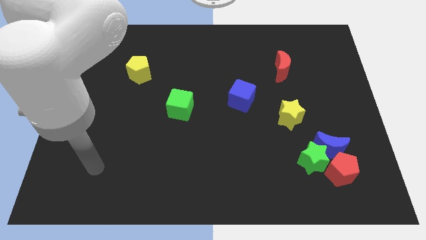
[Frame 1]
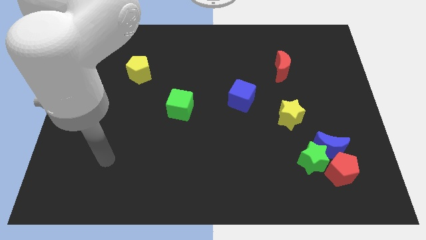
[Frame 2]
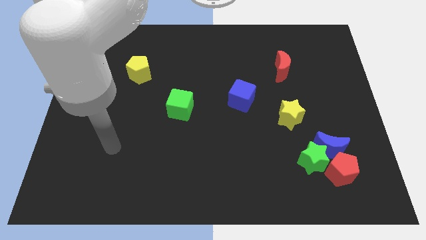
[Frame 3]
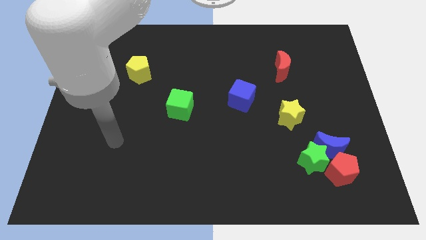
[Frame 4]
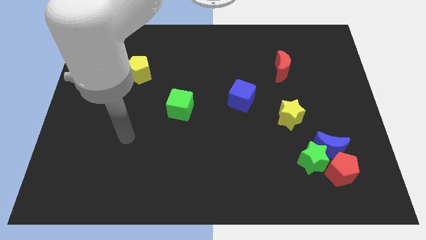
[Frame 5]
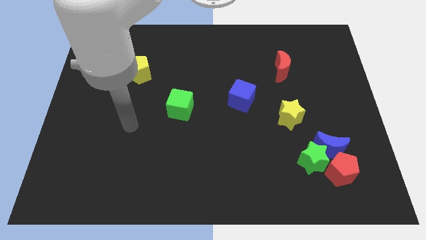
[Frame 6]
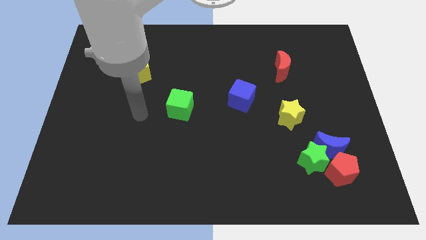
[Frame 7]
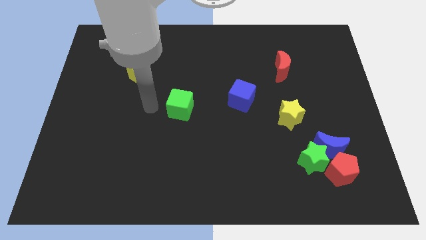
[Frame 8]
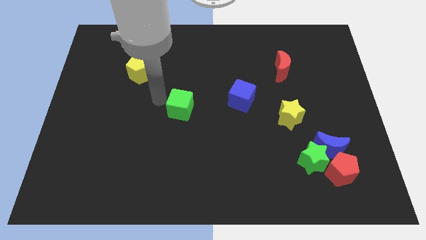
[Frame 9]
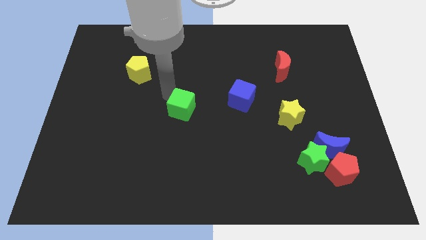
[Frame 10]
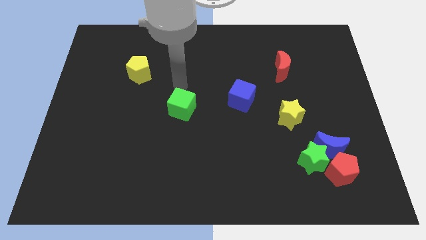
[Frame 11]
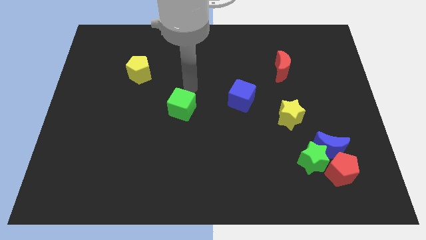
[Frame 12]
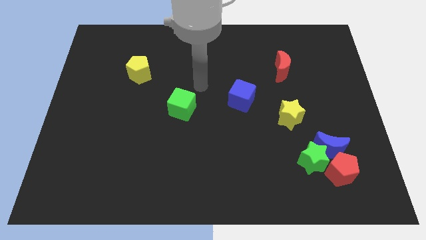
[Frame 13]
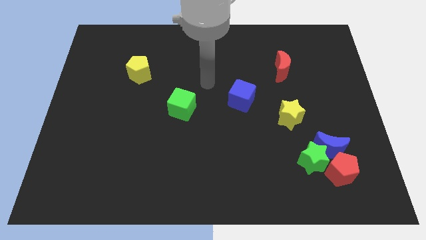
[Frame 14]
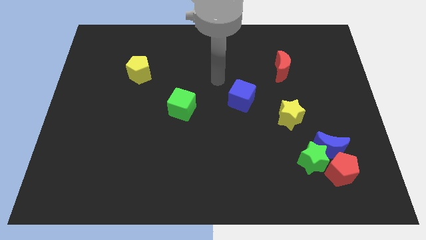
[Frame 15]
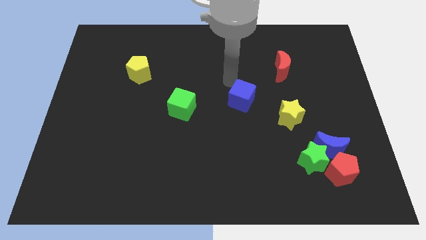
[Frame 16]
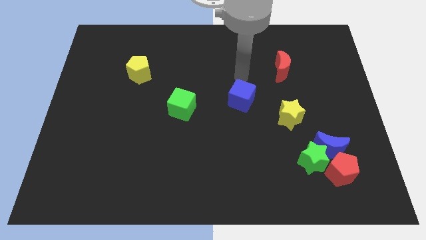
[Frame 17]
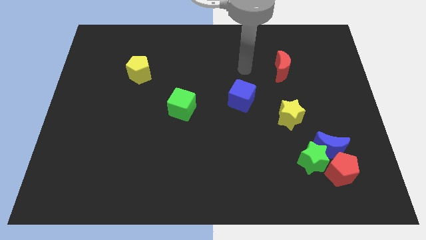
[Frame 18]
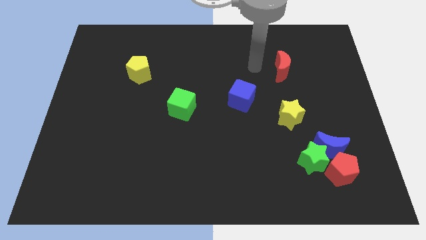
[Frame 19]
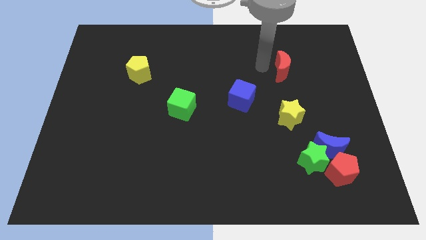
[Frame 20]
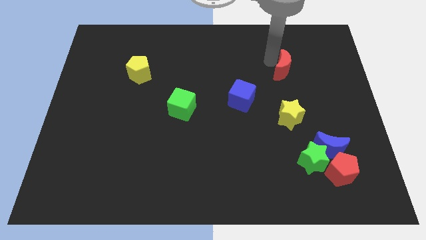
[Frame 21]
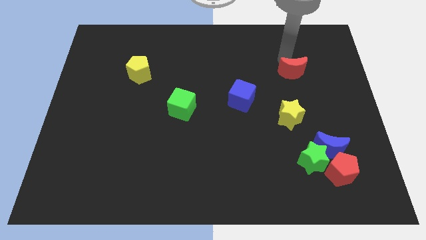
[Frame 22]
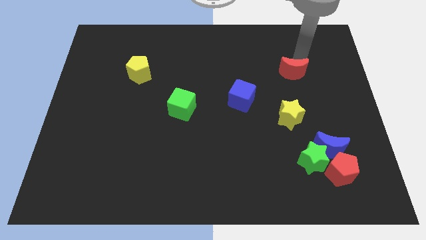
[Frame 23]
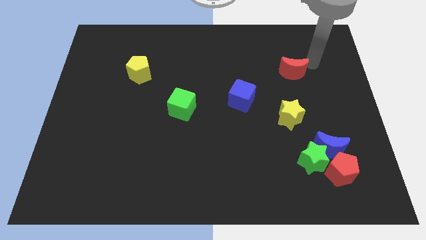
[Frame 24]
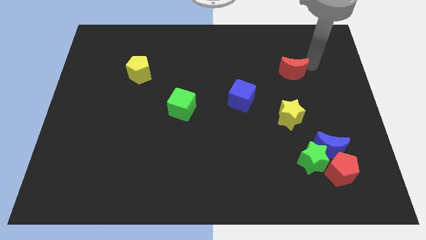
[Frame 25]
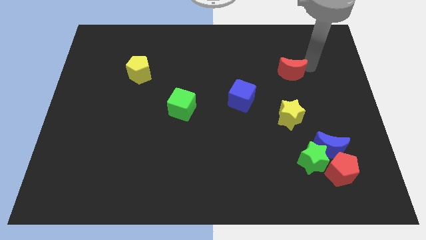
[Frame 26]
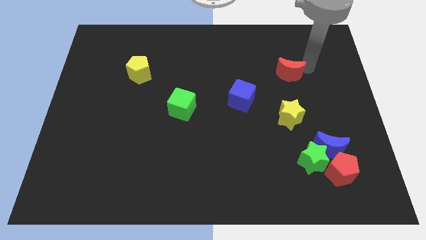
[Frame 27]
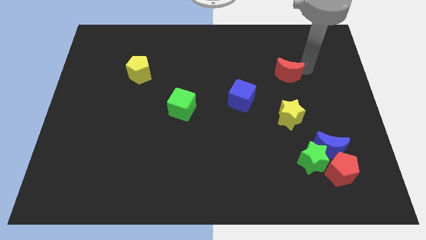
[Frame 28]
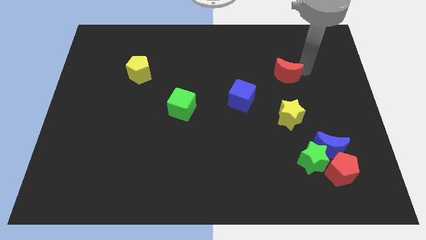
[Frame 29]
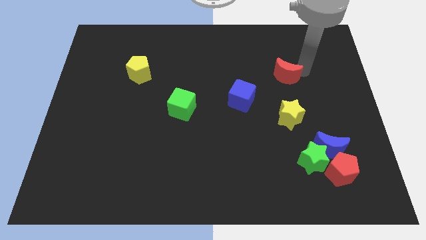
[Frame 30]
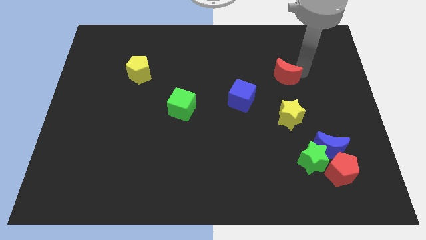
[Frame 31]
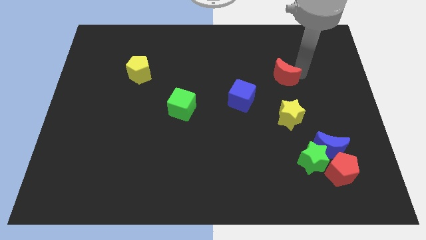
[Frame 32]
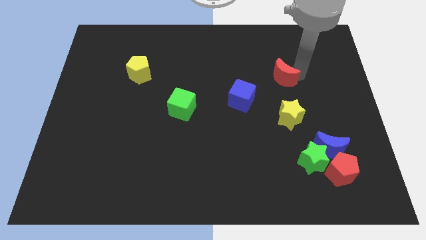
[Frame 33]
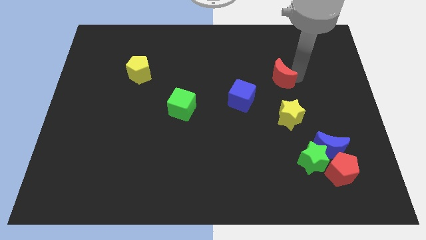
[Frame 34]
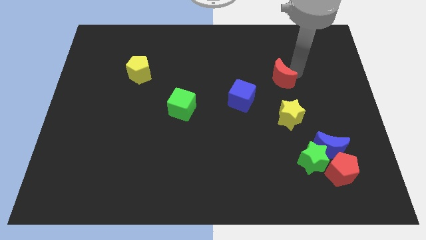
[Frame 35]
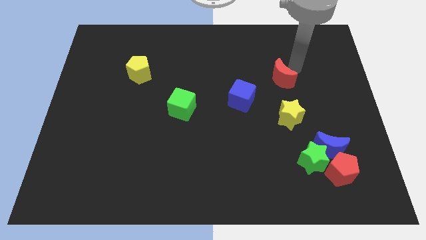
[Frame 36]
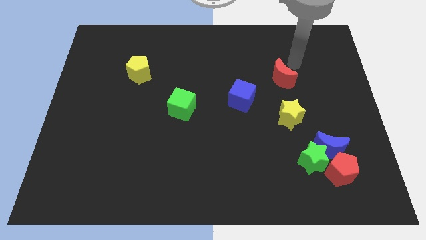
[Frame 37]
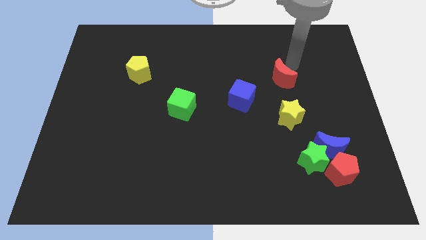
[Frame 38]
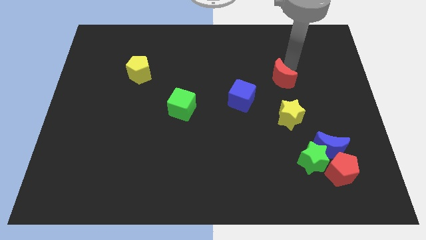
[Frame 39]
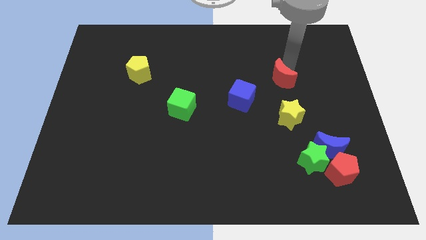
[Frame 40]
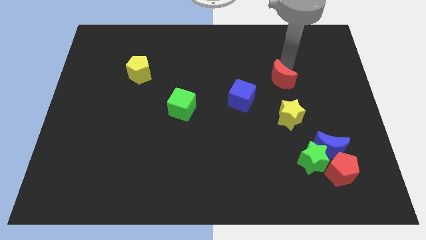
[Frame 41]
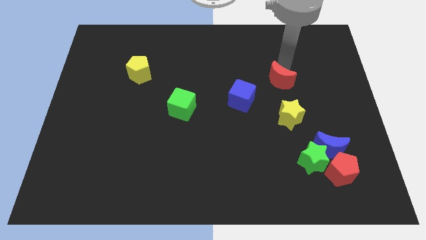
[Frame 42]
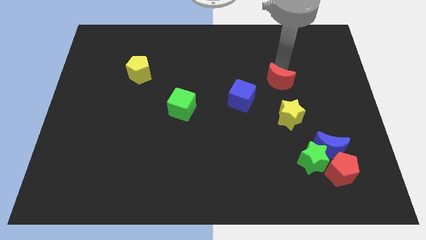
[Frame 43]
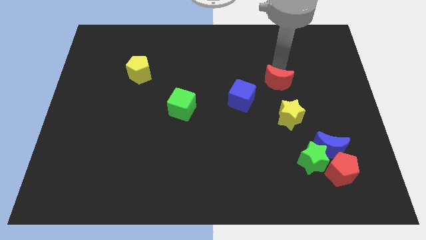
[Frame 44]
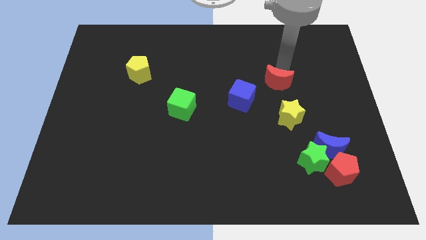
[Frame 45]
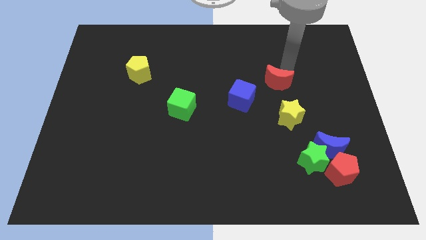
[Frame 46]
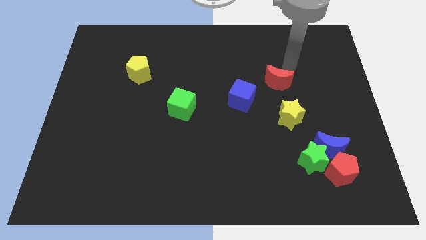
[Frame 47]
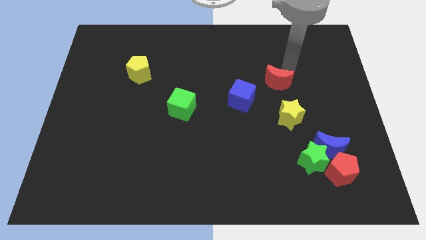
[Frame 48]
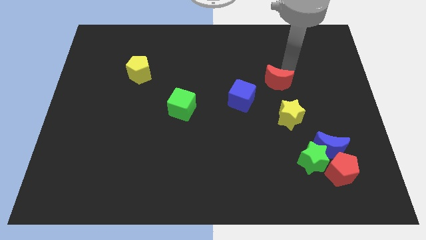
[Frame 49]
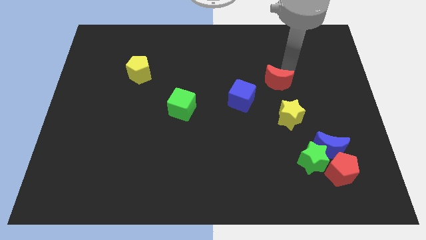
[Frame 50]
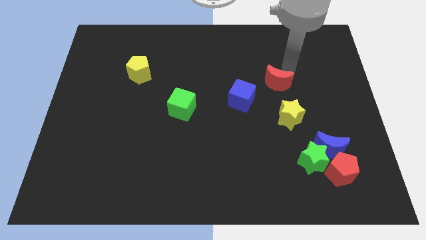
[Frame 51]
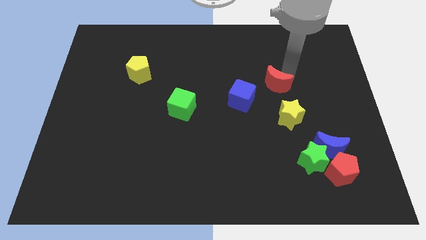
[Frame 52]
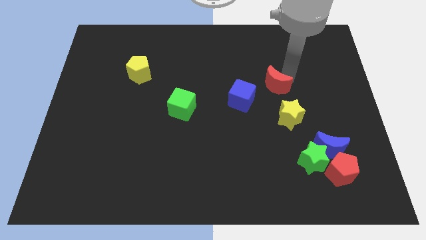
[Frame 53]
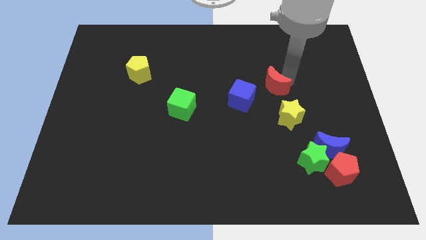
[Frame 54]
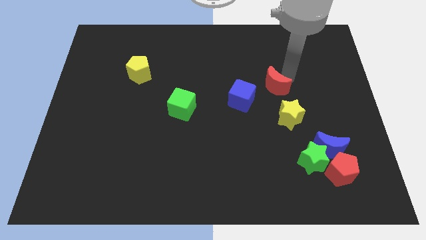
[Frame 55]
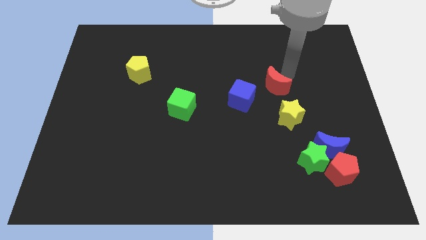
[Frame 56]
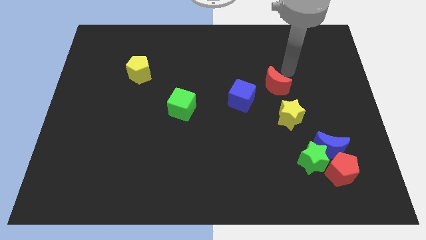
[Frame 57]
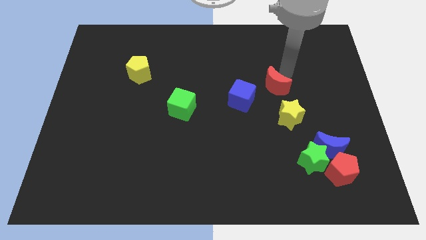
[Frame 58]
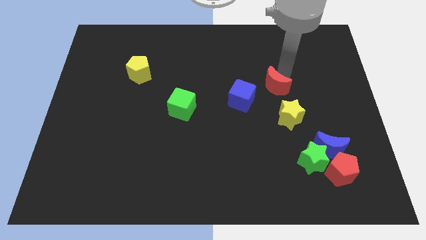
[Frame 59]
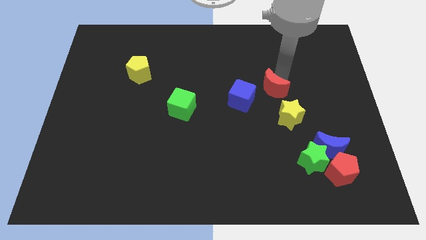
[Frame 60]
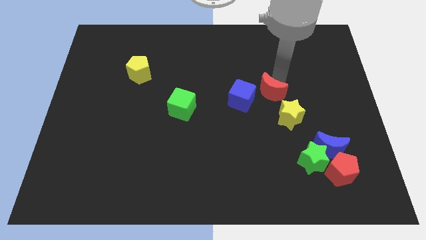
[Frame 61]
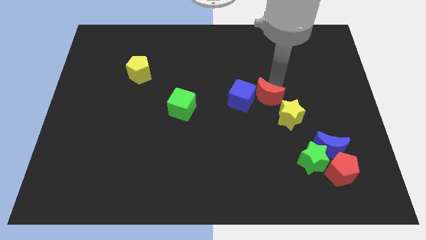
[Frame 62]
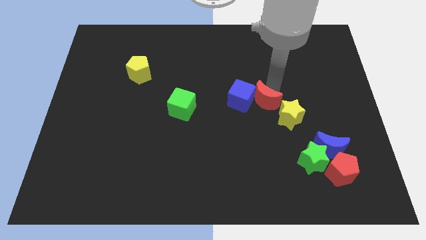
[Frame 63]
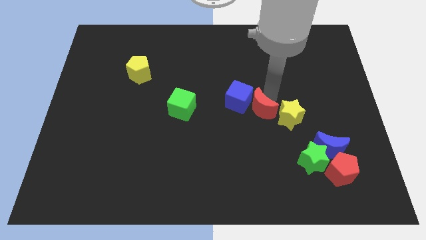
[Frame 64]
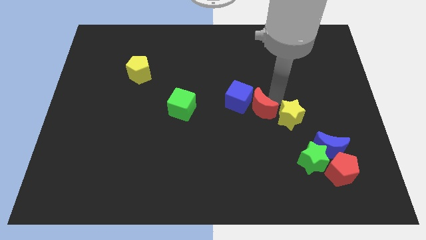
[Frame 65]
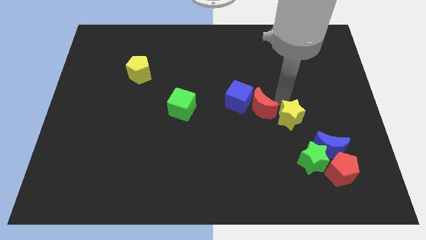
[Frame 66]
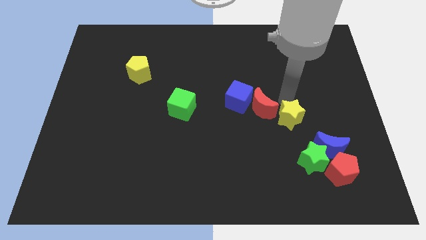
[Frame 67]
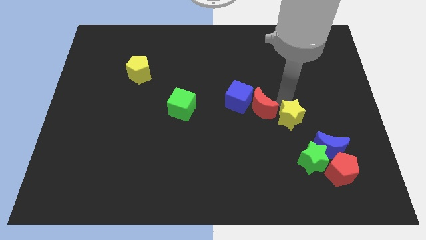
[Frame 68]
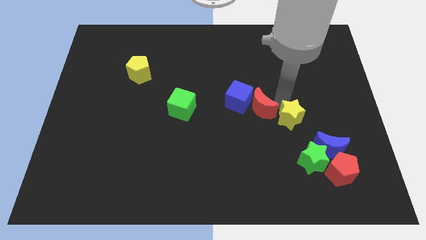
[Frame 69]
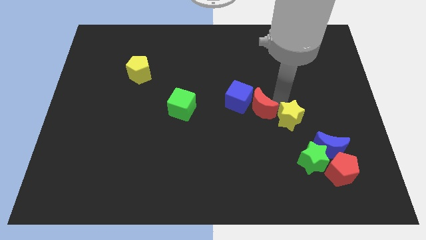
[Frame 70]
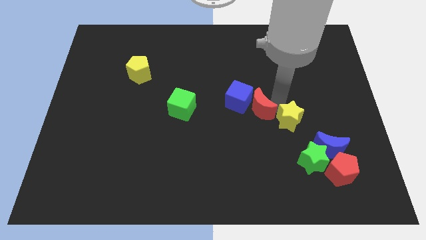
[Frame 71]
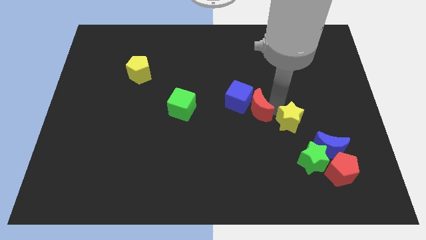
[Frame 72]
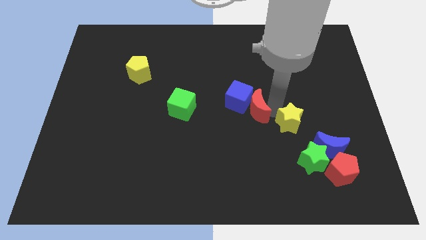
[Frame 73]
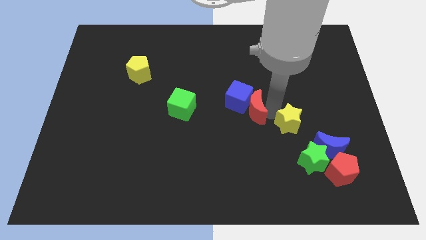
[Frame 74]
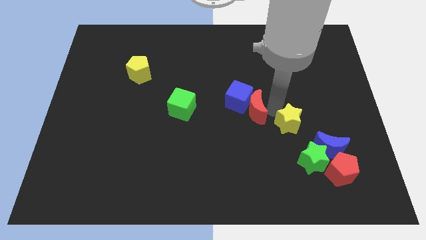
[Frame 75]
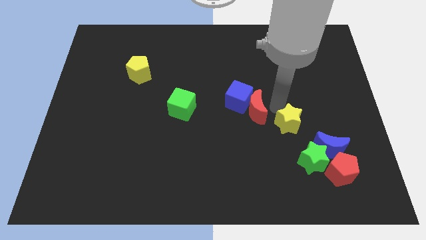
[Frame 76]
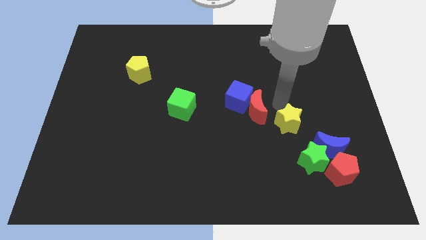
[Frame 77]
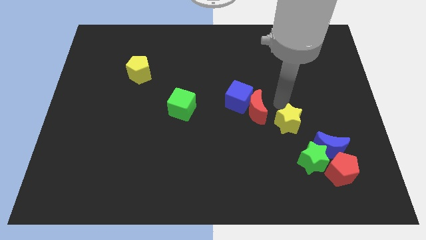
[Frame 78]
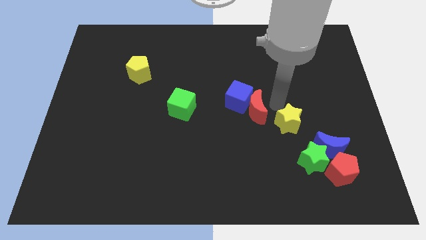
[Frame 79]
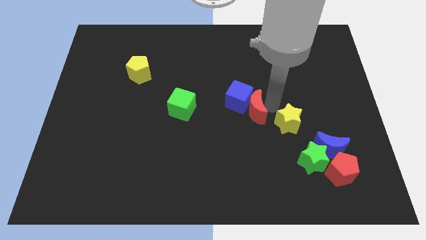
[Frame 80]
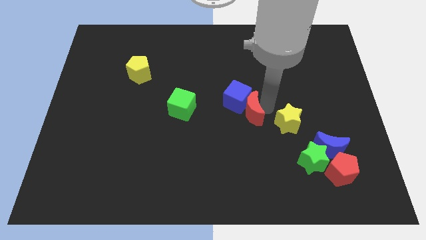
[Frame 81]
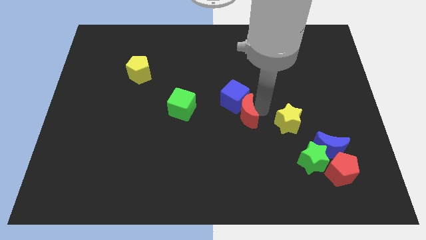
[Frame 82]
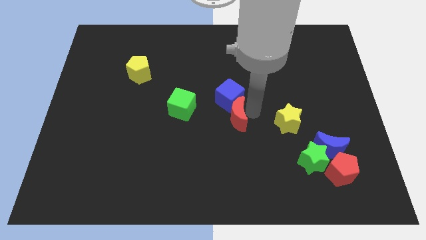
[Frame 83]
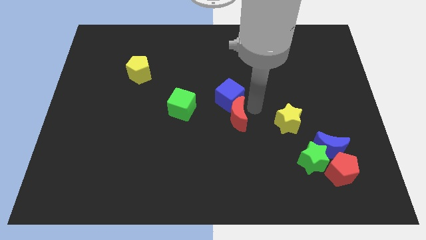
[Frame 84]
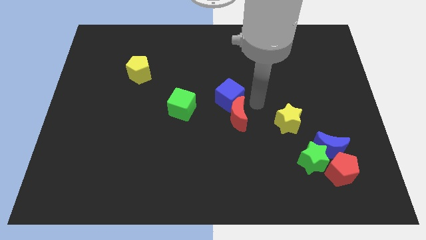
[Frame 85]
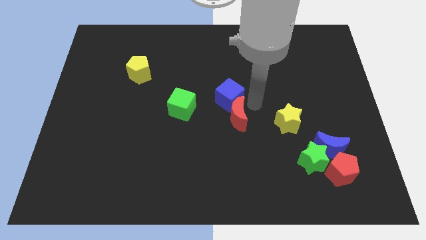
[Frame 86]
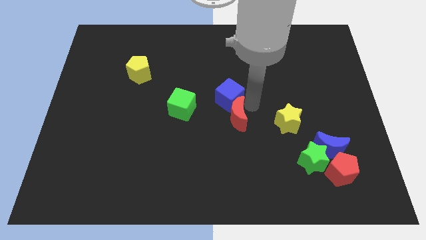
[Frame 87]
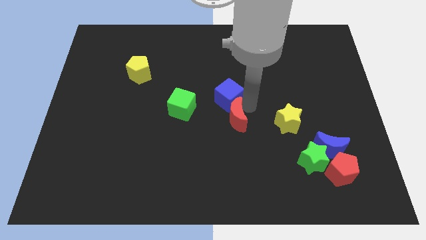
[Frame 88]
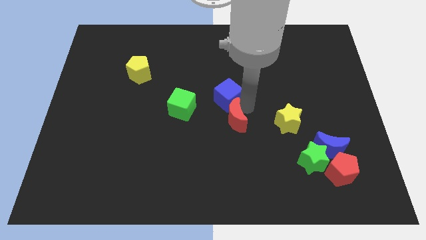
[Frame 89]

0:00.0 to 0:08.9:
push the red moon down and then to the left
